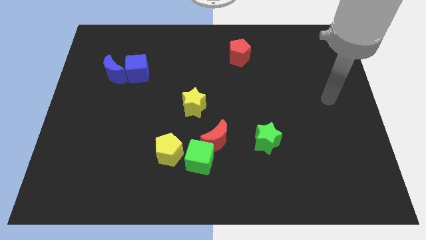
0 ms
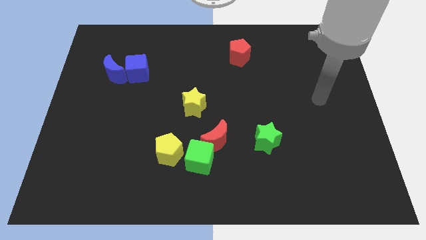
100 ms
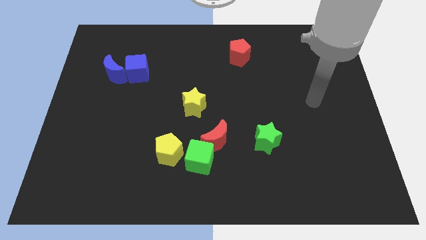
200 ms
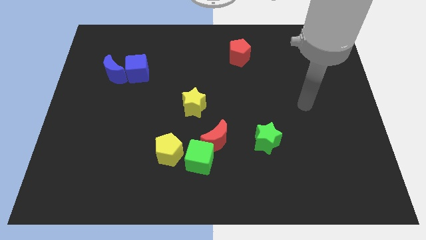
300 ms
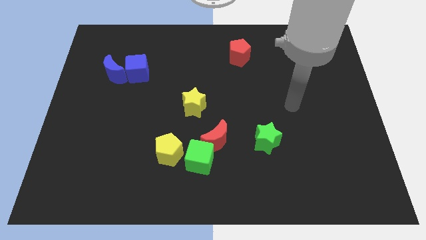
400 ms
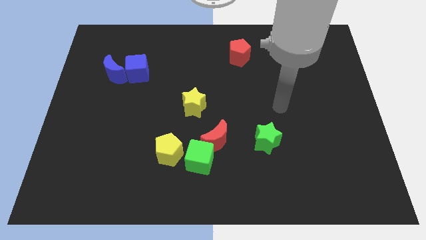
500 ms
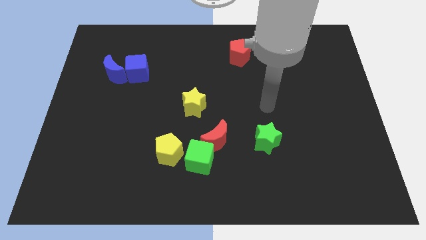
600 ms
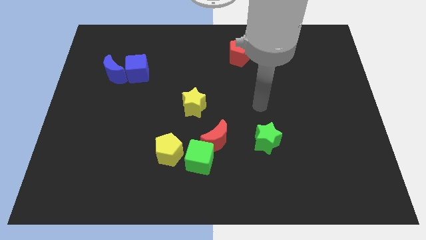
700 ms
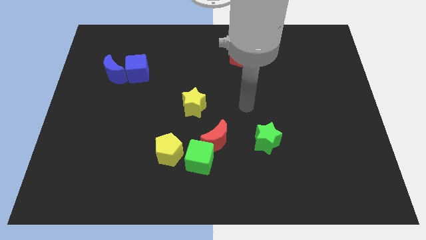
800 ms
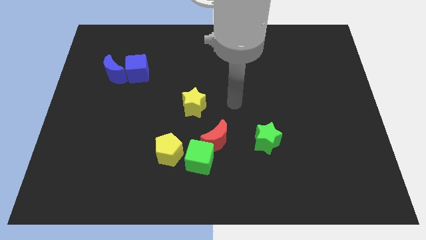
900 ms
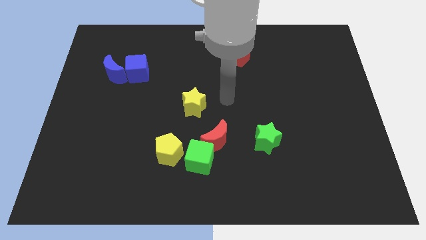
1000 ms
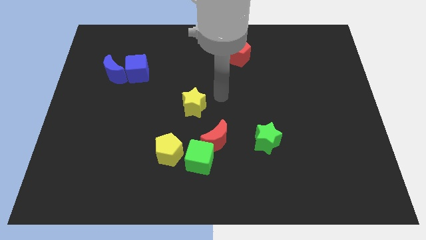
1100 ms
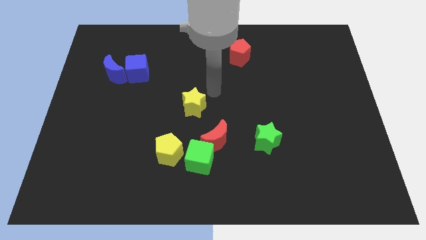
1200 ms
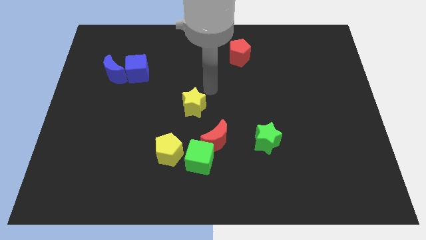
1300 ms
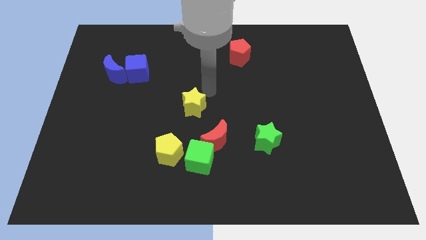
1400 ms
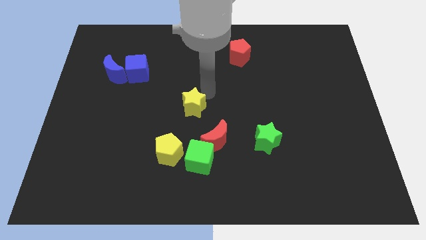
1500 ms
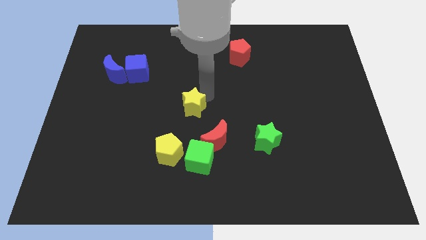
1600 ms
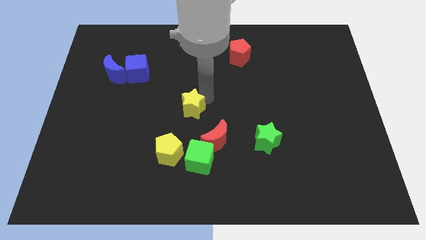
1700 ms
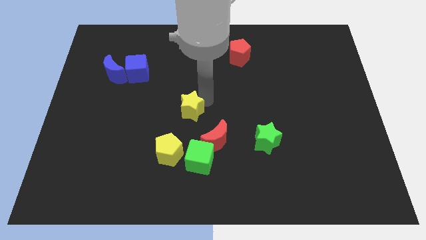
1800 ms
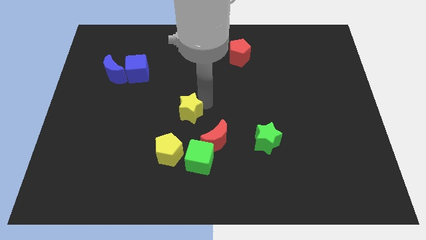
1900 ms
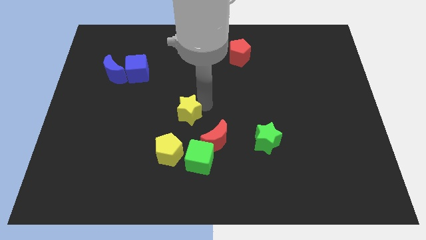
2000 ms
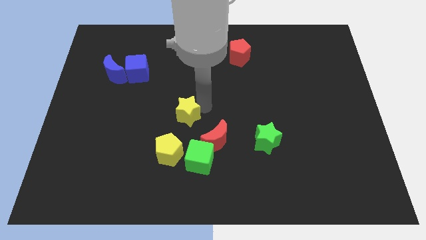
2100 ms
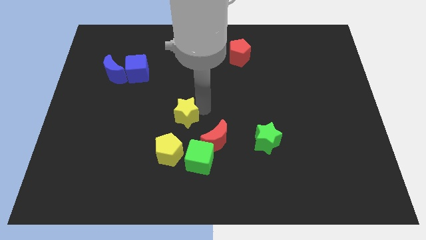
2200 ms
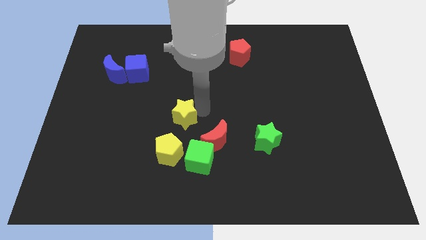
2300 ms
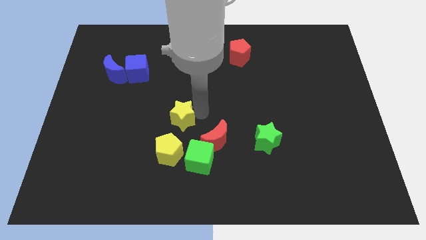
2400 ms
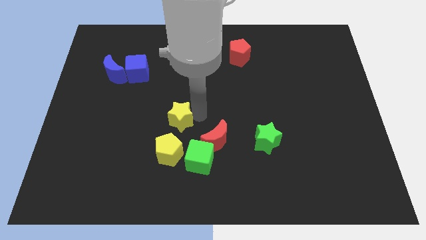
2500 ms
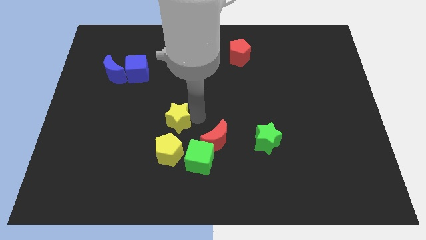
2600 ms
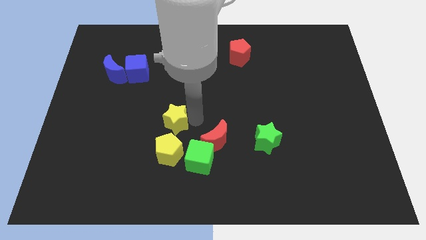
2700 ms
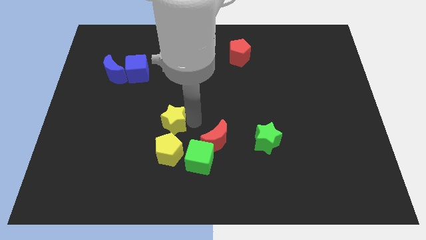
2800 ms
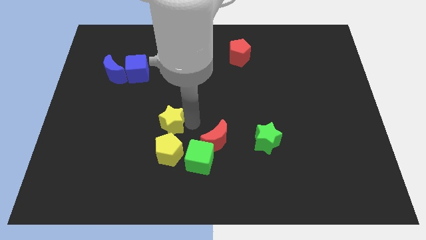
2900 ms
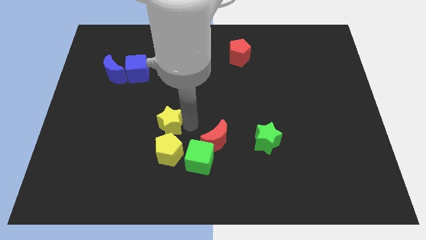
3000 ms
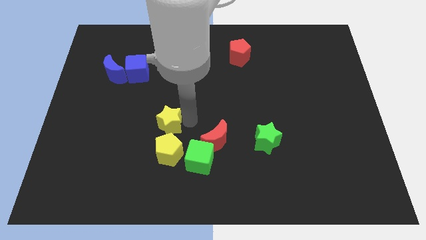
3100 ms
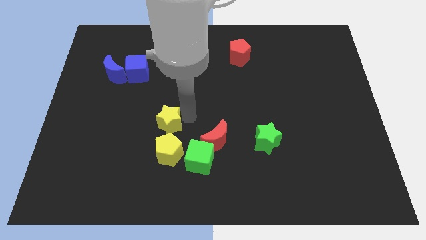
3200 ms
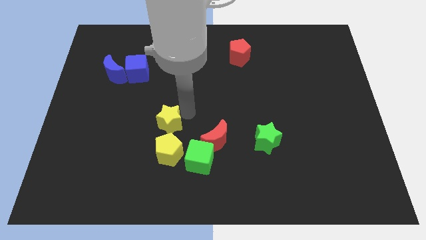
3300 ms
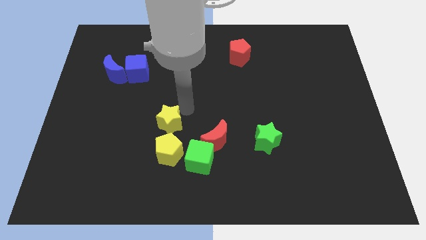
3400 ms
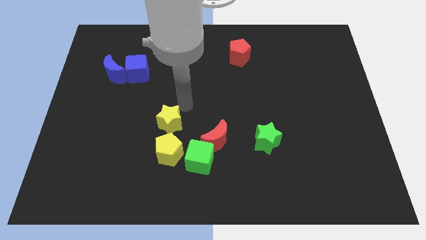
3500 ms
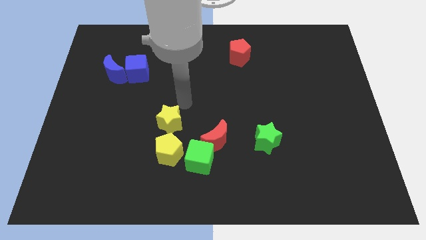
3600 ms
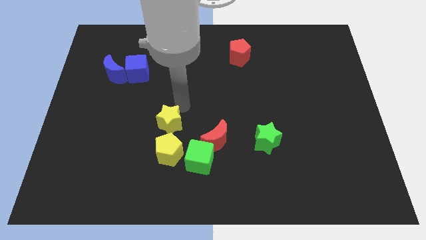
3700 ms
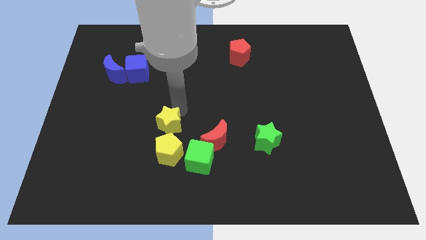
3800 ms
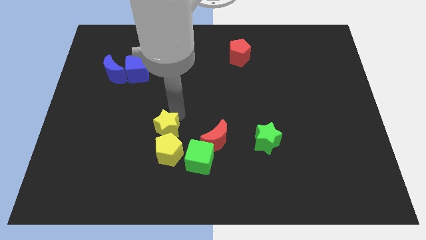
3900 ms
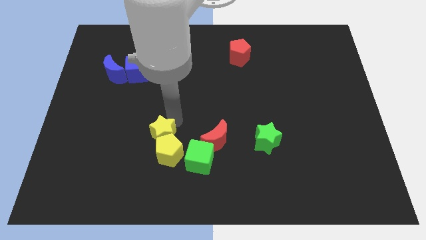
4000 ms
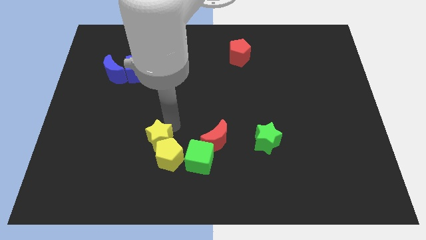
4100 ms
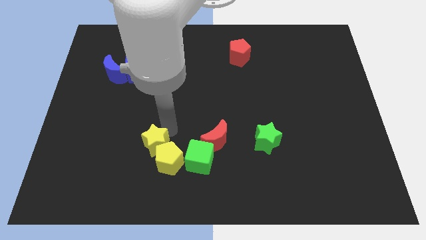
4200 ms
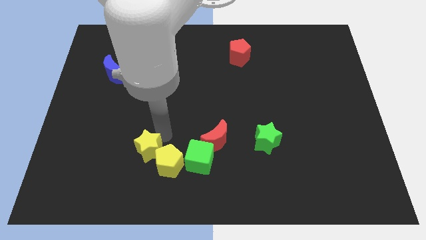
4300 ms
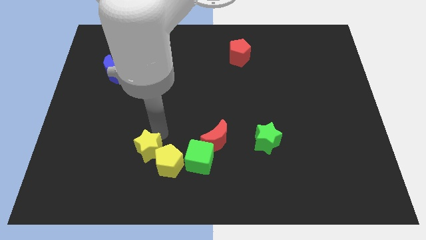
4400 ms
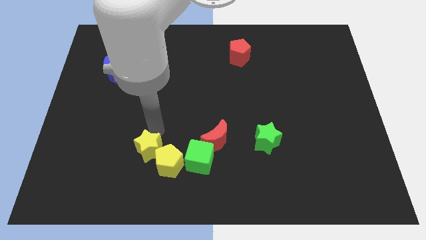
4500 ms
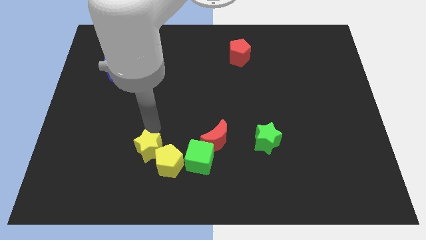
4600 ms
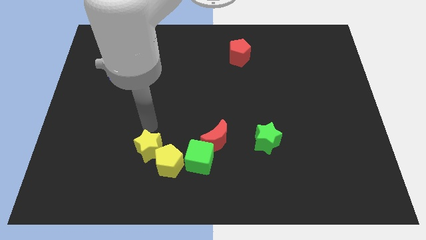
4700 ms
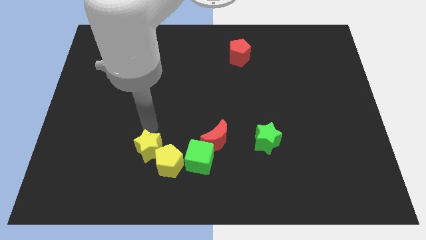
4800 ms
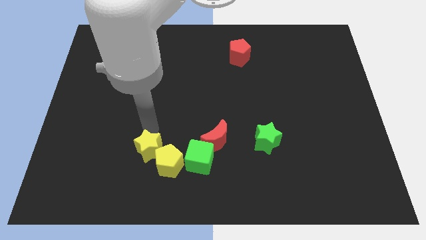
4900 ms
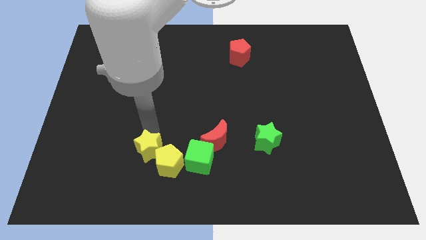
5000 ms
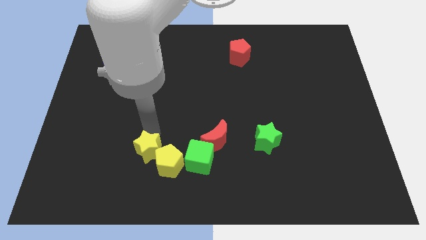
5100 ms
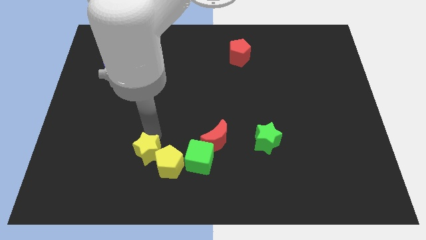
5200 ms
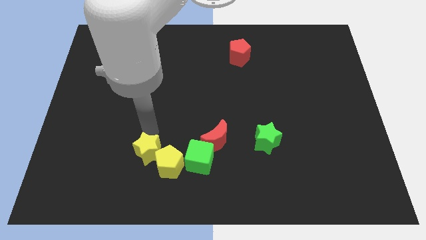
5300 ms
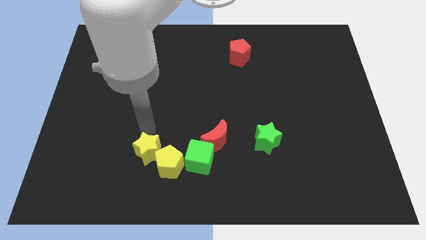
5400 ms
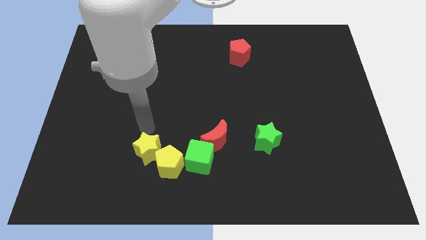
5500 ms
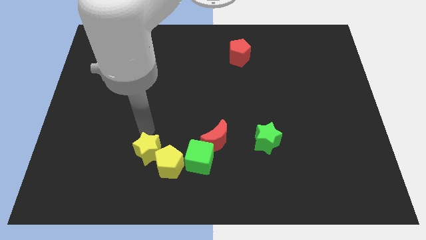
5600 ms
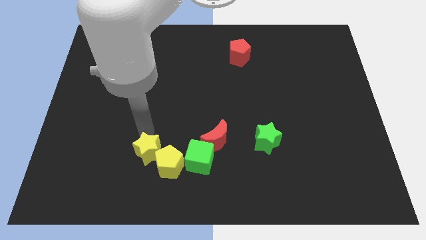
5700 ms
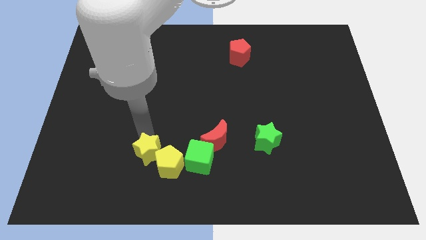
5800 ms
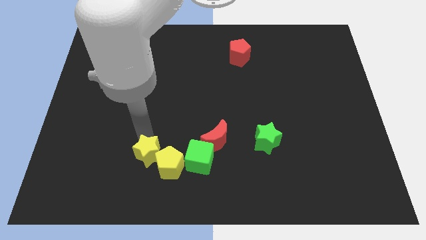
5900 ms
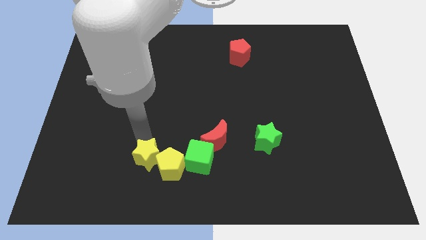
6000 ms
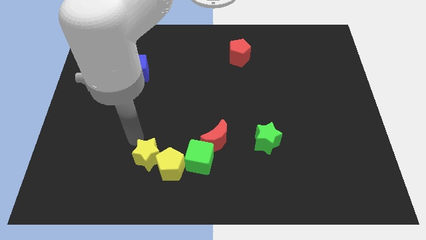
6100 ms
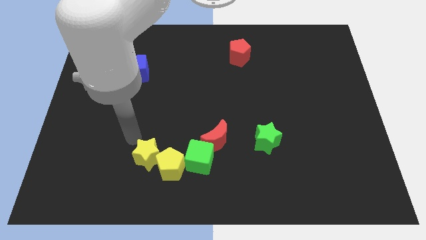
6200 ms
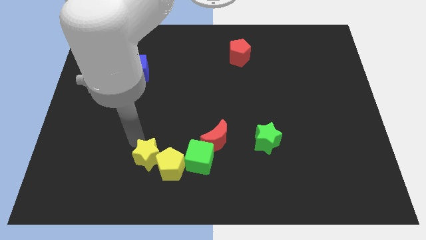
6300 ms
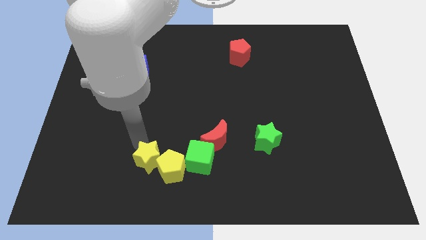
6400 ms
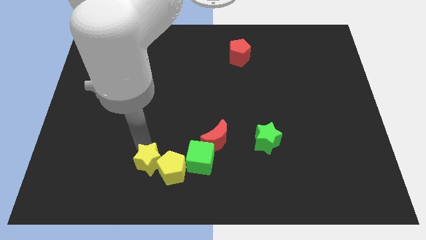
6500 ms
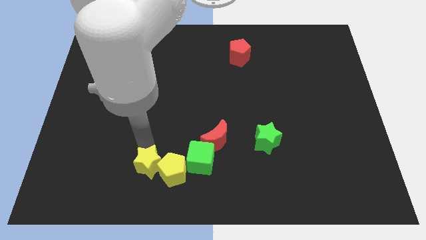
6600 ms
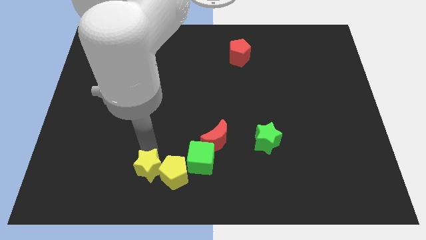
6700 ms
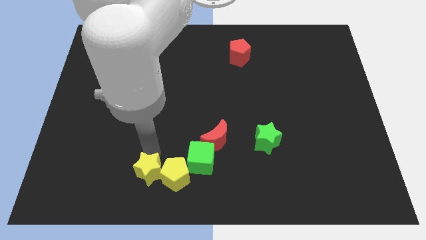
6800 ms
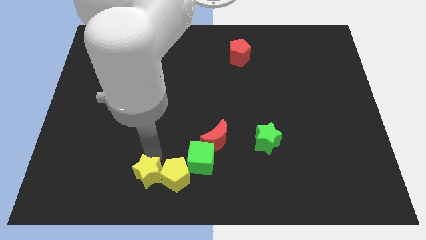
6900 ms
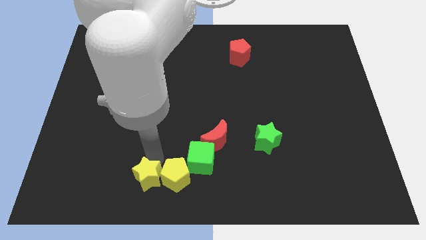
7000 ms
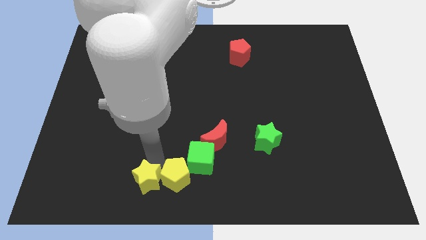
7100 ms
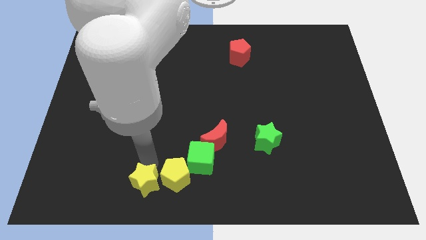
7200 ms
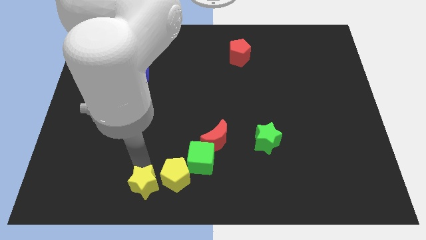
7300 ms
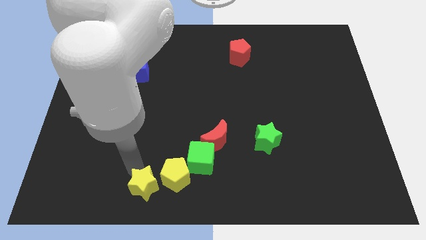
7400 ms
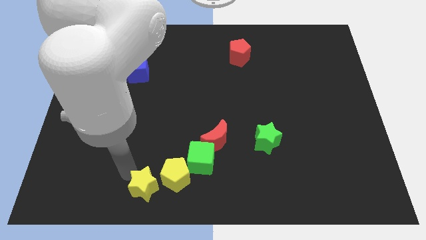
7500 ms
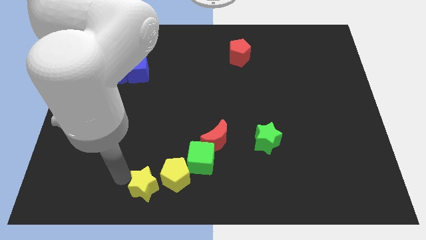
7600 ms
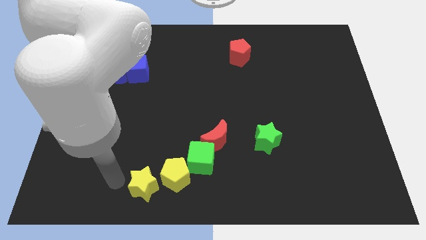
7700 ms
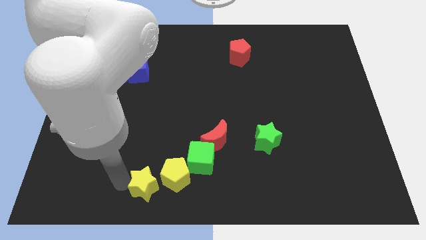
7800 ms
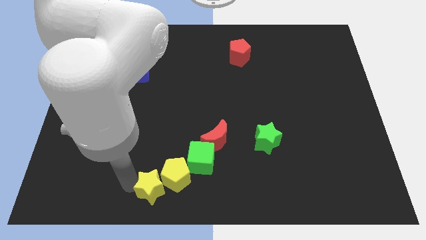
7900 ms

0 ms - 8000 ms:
move the yellow star to the bottom
